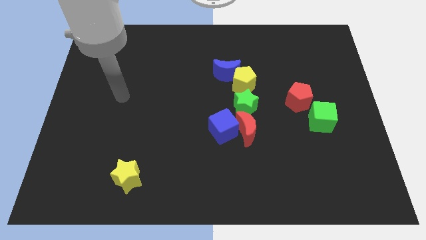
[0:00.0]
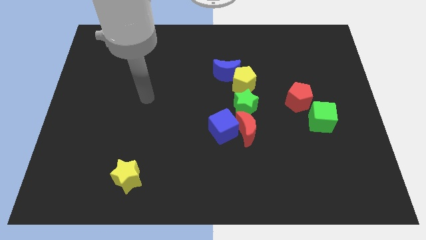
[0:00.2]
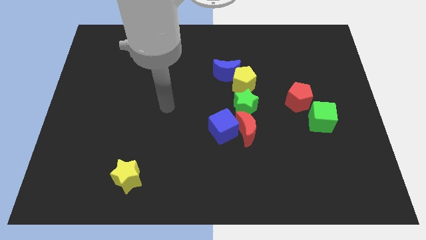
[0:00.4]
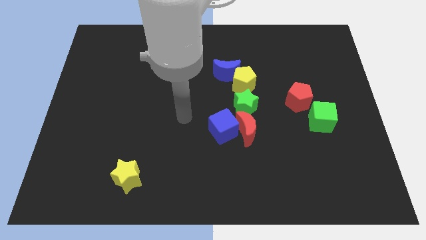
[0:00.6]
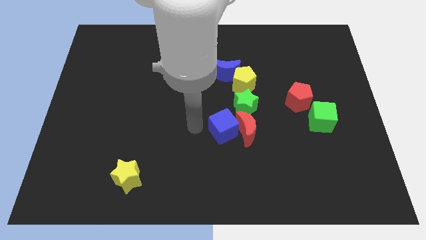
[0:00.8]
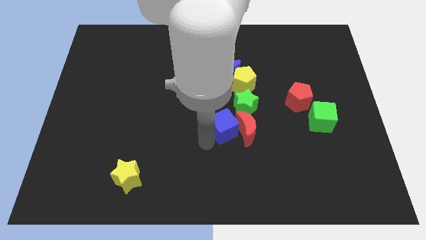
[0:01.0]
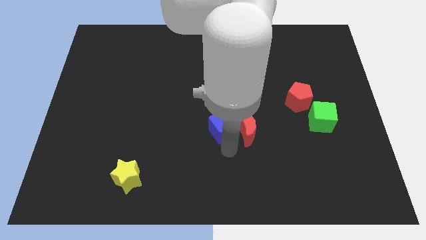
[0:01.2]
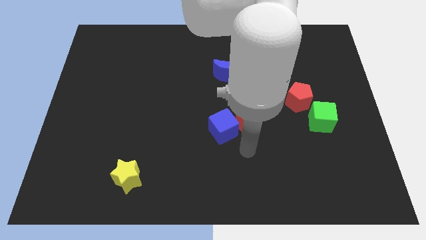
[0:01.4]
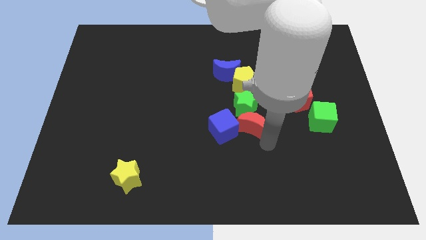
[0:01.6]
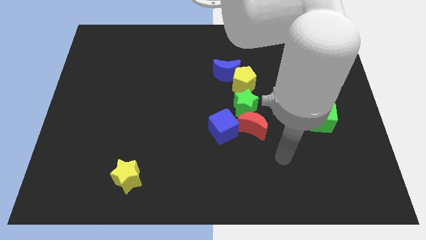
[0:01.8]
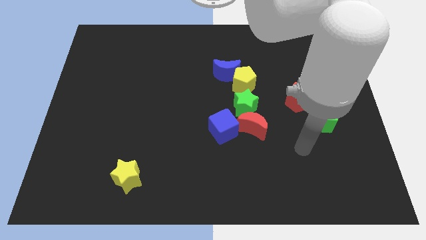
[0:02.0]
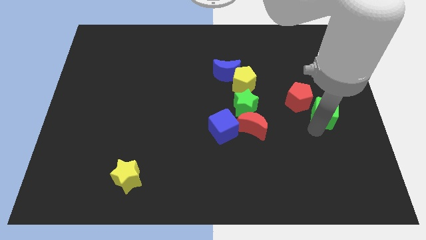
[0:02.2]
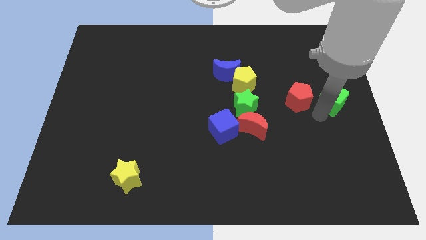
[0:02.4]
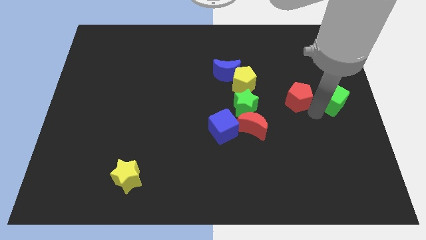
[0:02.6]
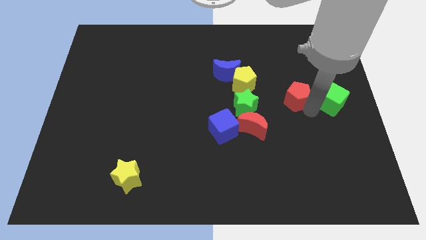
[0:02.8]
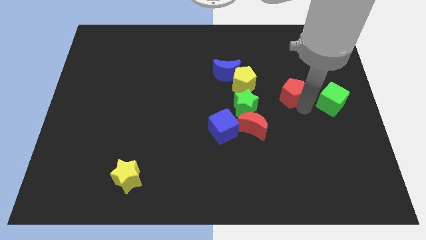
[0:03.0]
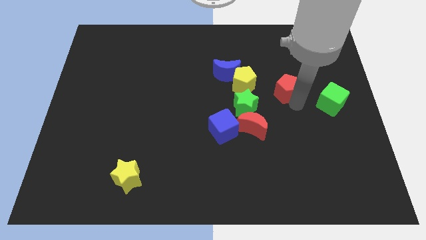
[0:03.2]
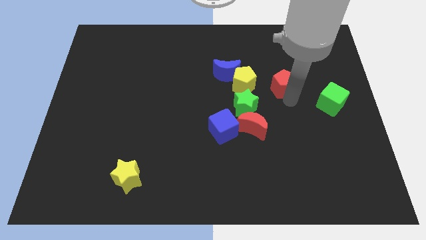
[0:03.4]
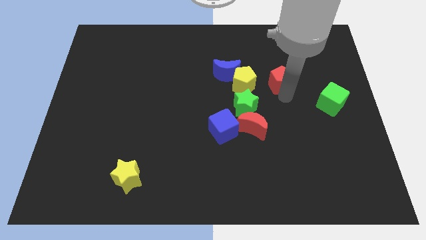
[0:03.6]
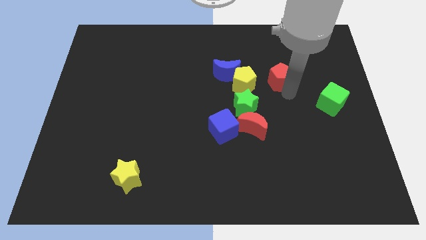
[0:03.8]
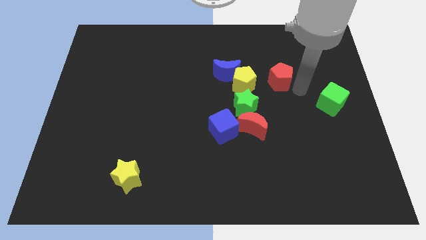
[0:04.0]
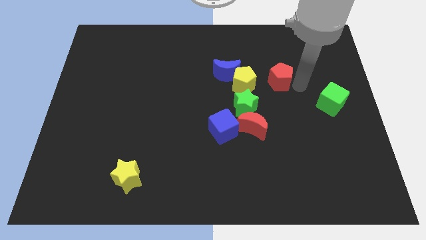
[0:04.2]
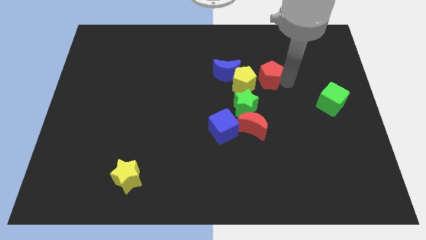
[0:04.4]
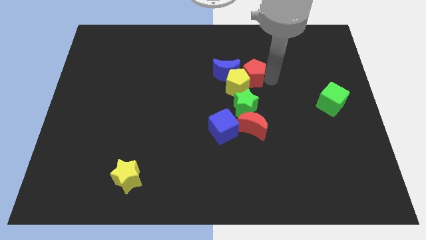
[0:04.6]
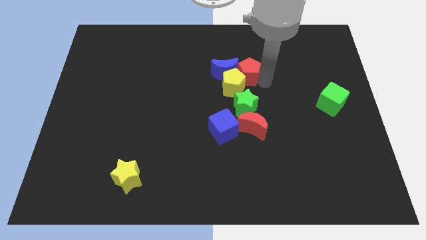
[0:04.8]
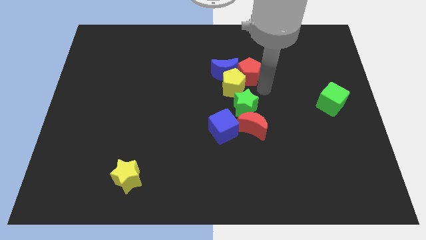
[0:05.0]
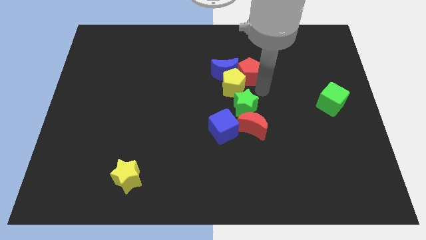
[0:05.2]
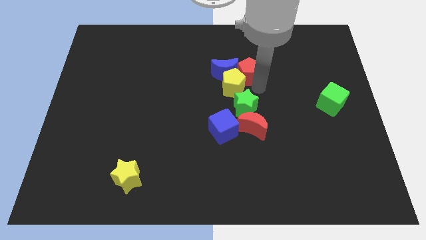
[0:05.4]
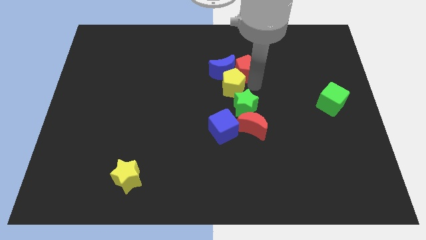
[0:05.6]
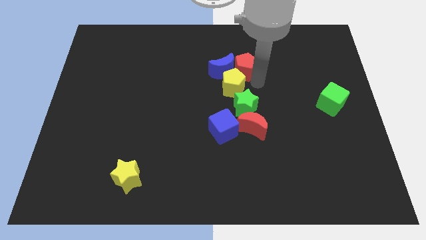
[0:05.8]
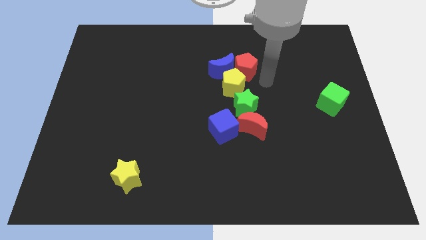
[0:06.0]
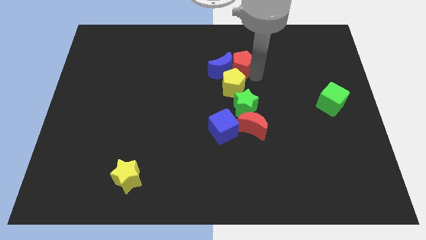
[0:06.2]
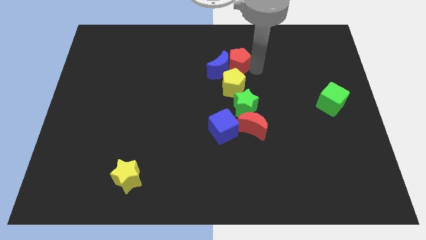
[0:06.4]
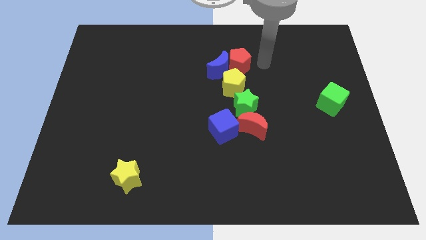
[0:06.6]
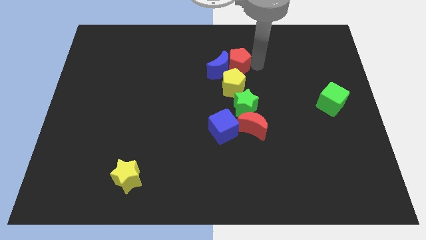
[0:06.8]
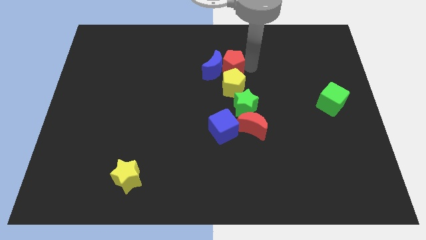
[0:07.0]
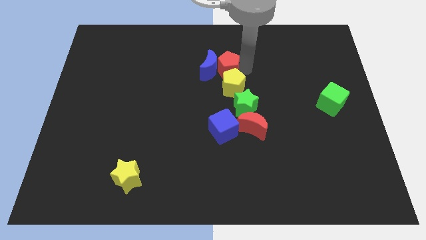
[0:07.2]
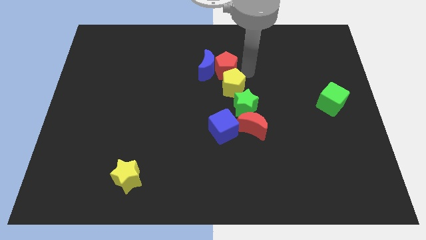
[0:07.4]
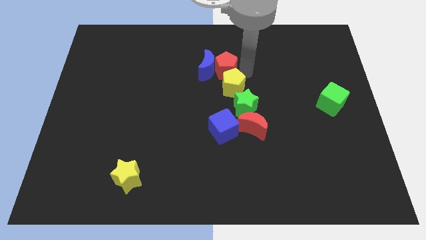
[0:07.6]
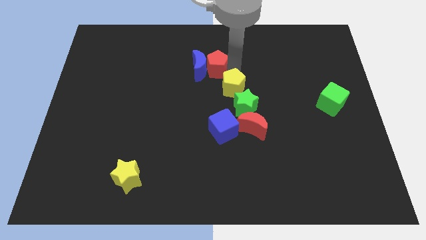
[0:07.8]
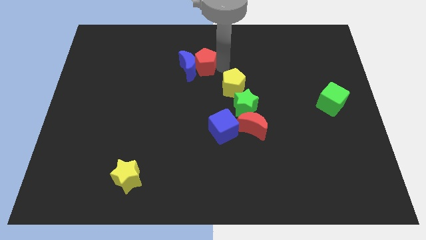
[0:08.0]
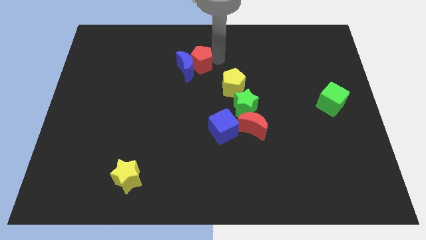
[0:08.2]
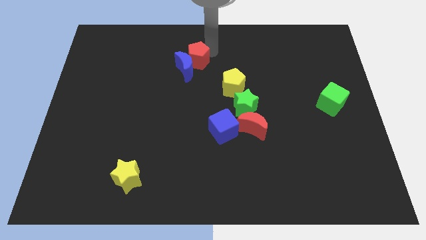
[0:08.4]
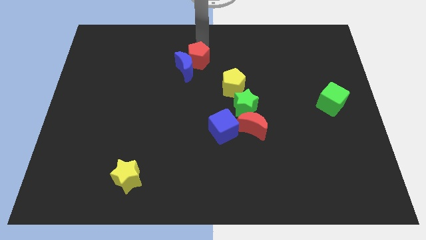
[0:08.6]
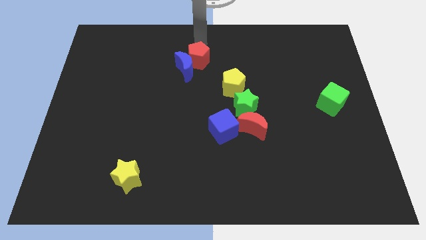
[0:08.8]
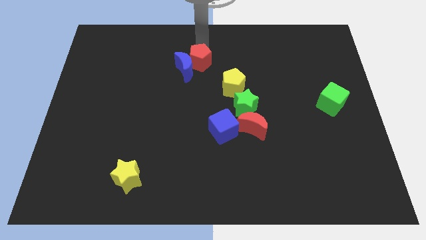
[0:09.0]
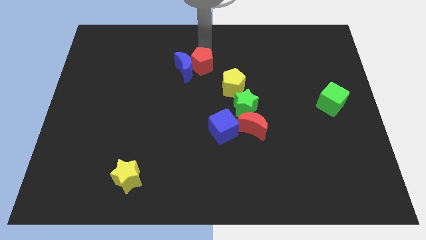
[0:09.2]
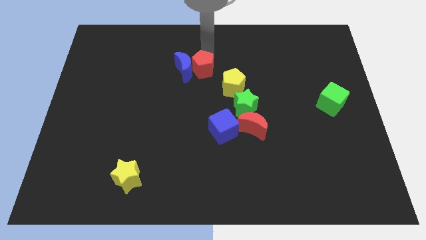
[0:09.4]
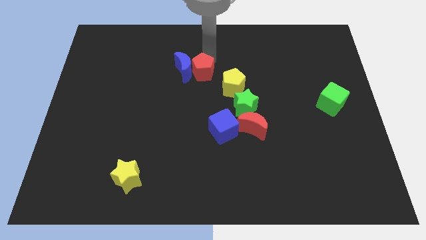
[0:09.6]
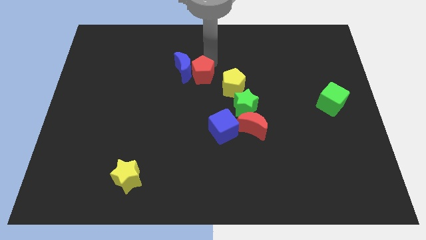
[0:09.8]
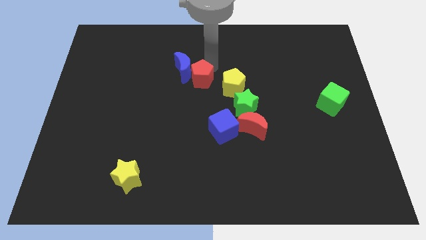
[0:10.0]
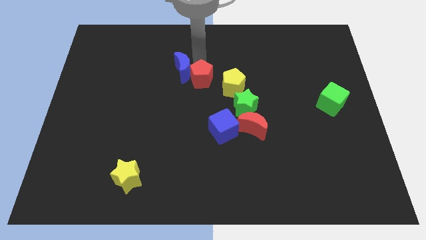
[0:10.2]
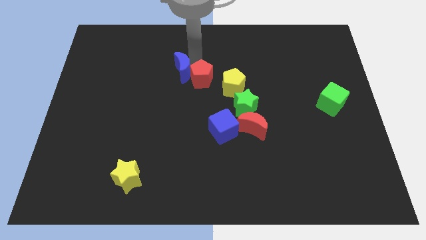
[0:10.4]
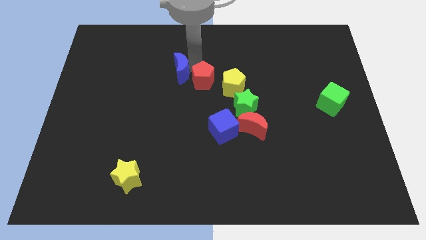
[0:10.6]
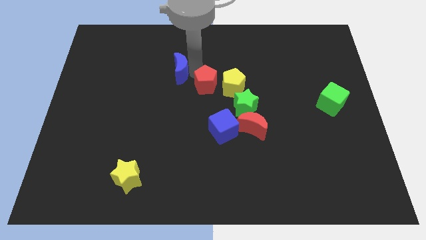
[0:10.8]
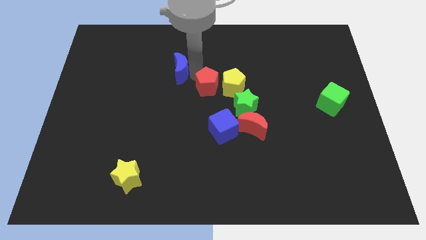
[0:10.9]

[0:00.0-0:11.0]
slide the red pentagon diagonally down and to the left of the yellow pentagon
